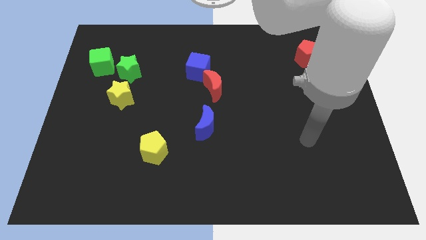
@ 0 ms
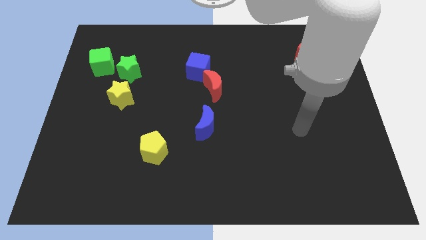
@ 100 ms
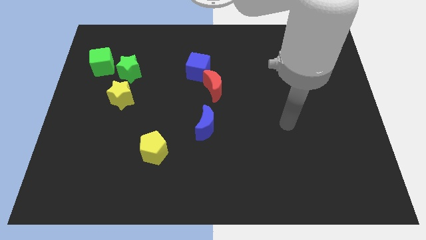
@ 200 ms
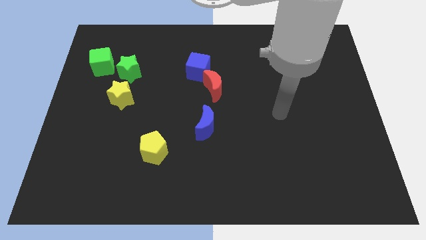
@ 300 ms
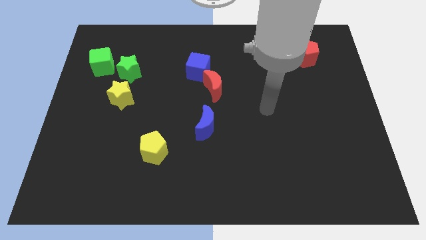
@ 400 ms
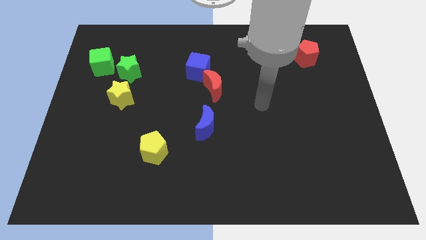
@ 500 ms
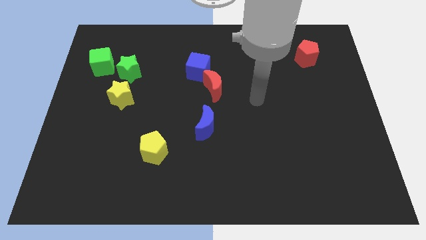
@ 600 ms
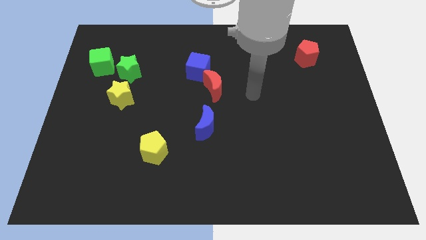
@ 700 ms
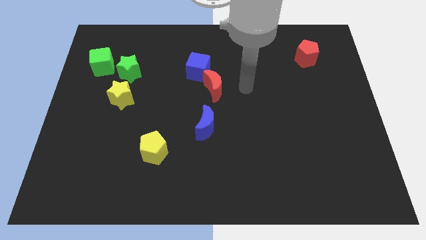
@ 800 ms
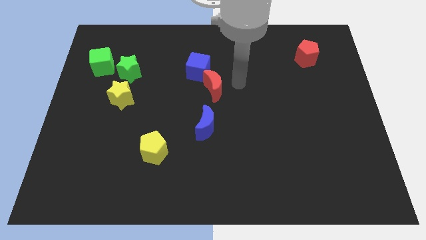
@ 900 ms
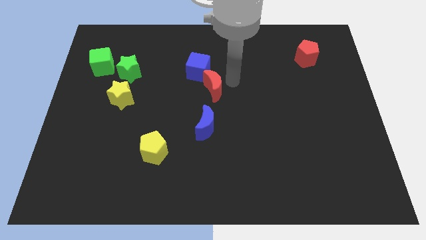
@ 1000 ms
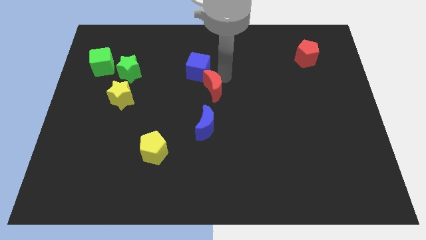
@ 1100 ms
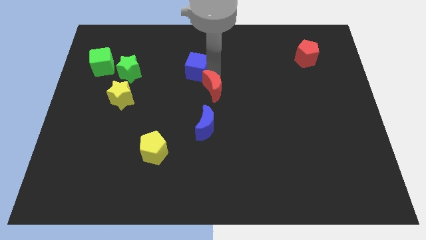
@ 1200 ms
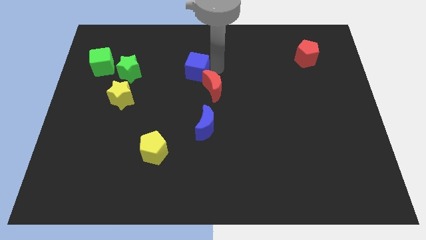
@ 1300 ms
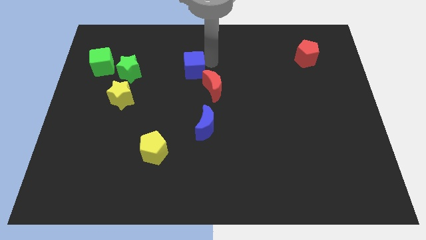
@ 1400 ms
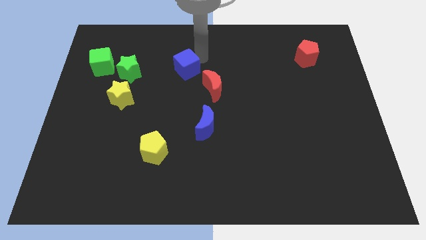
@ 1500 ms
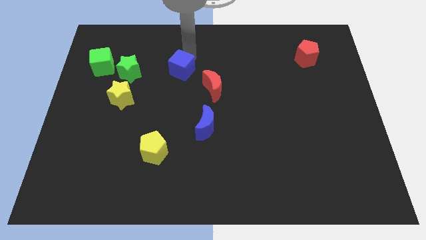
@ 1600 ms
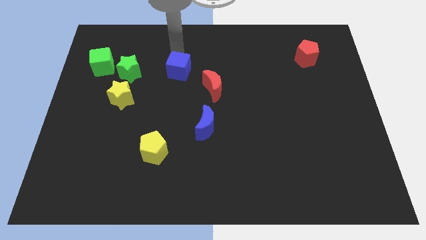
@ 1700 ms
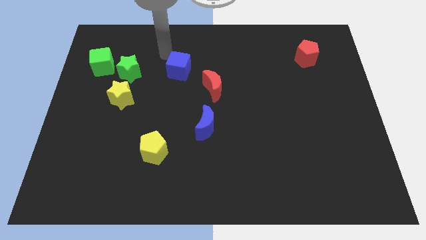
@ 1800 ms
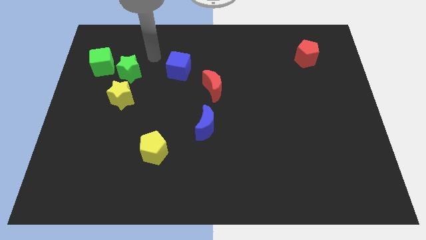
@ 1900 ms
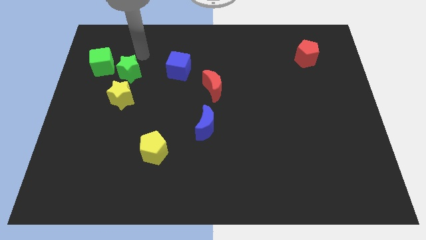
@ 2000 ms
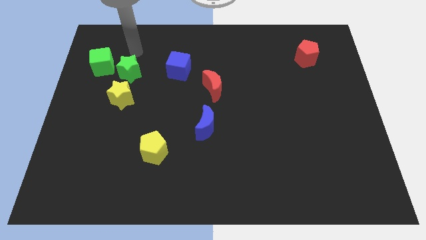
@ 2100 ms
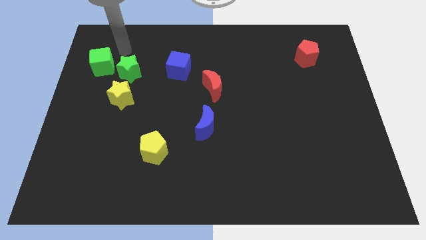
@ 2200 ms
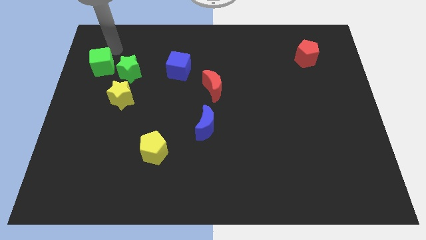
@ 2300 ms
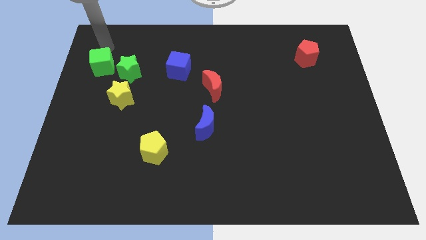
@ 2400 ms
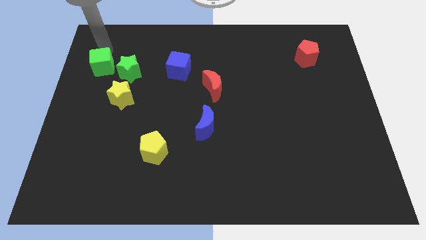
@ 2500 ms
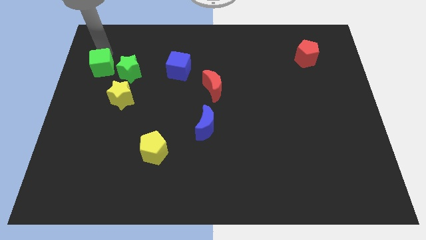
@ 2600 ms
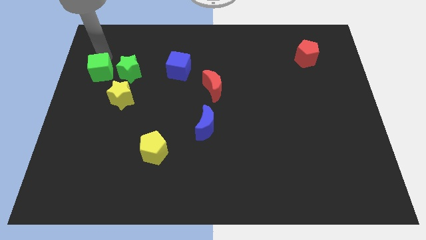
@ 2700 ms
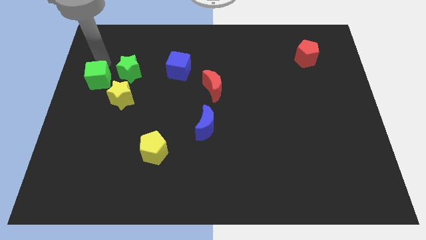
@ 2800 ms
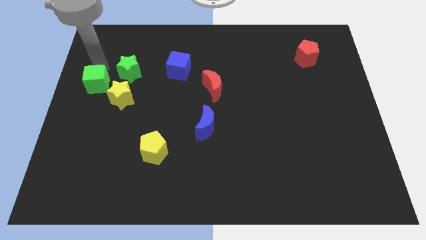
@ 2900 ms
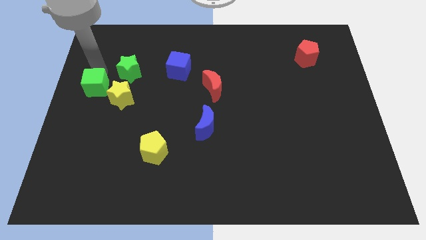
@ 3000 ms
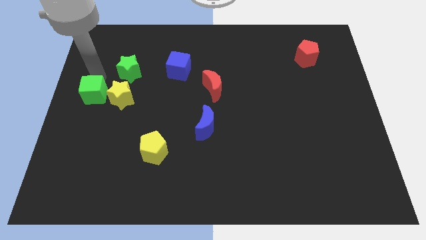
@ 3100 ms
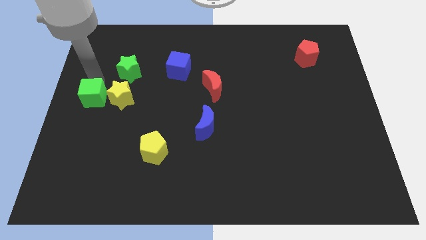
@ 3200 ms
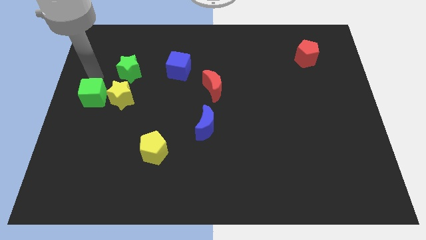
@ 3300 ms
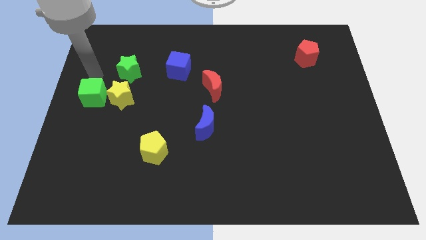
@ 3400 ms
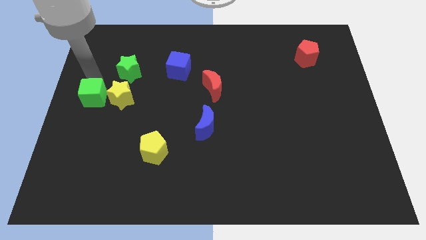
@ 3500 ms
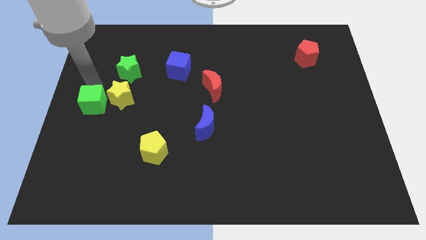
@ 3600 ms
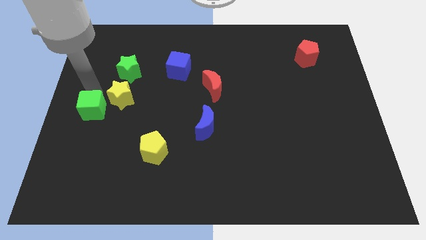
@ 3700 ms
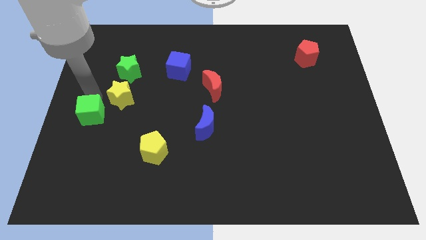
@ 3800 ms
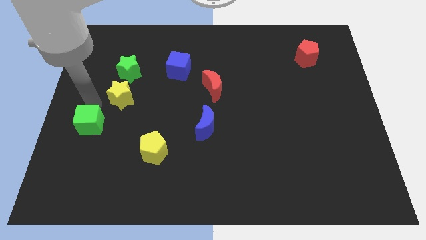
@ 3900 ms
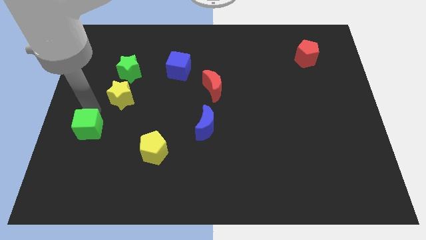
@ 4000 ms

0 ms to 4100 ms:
push the green cube down

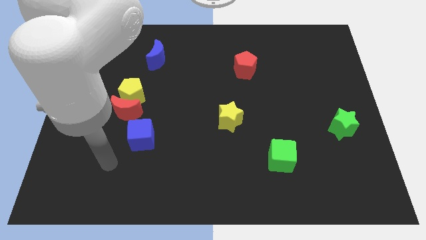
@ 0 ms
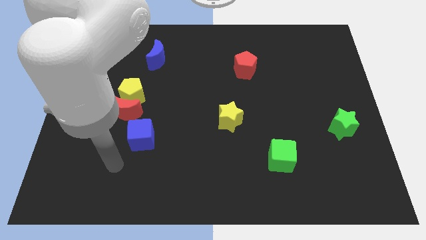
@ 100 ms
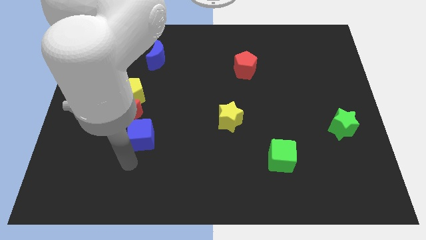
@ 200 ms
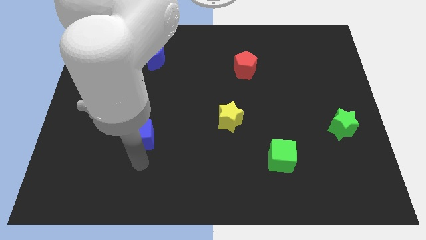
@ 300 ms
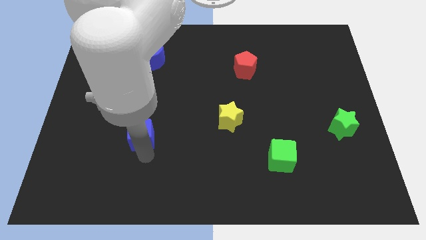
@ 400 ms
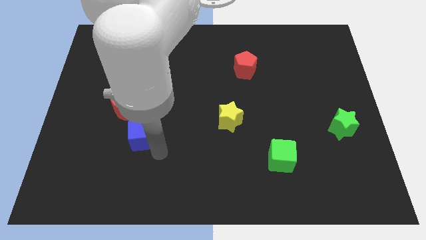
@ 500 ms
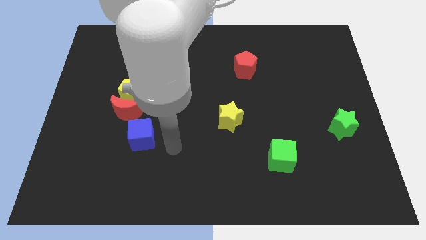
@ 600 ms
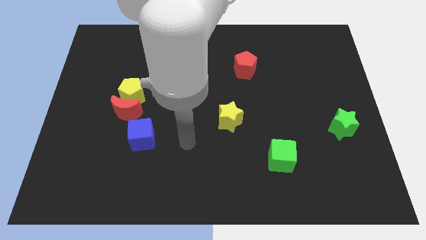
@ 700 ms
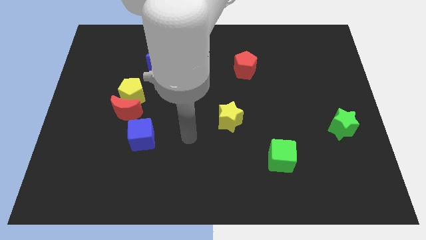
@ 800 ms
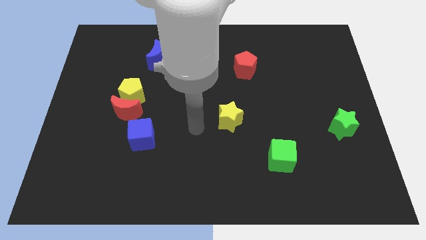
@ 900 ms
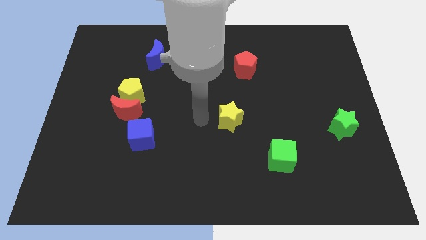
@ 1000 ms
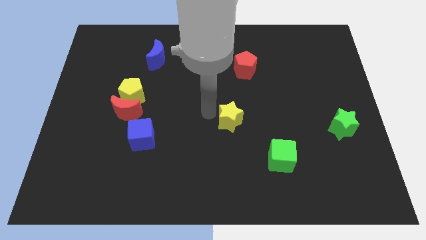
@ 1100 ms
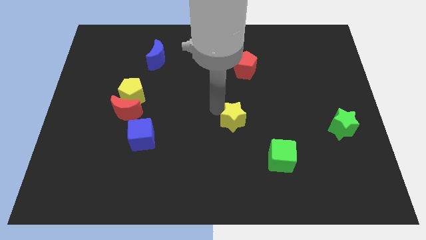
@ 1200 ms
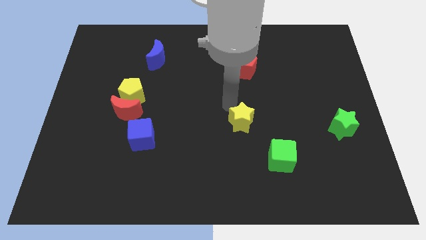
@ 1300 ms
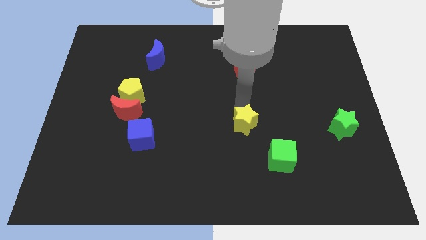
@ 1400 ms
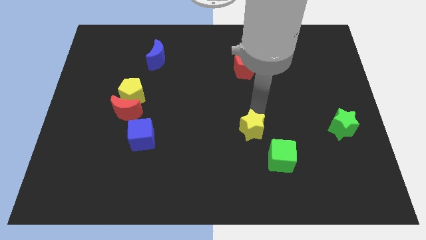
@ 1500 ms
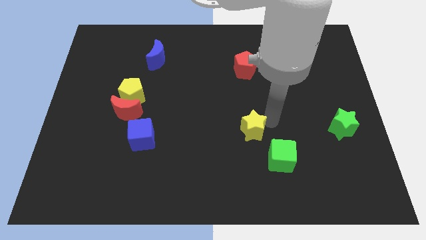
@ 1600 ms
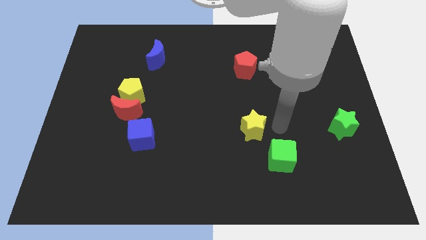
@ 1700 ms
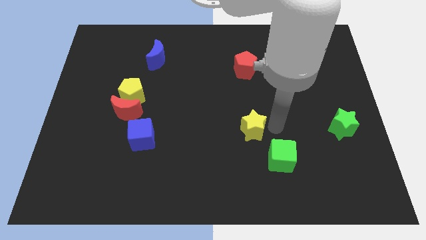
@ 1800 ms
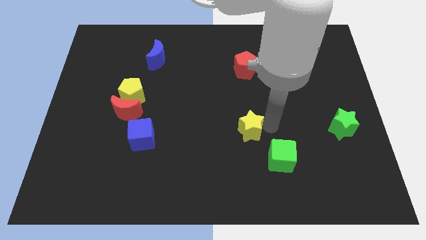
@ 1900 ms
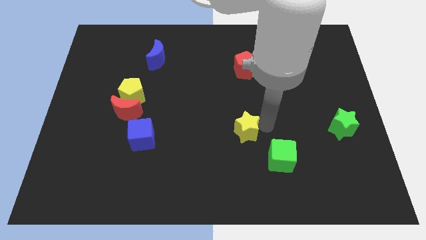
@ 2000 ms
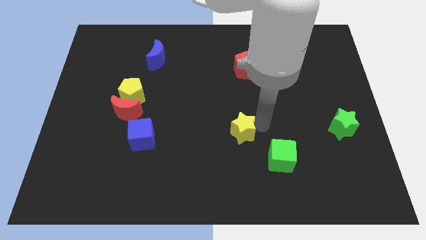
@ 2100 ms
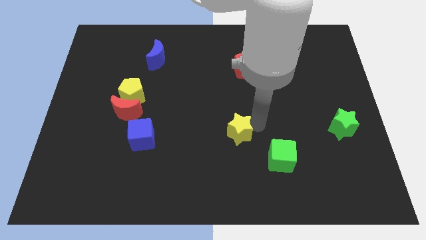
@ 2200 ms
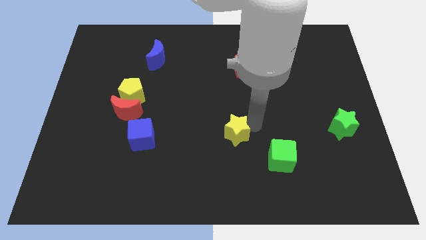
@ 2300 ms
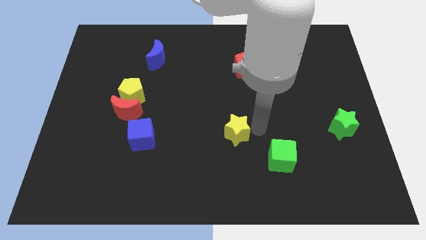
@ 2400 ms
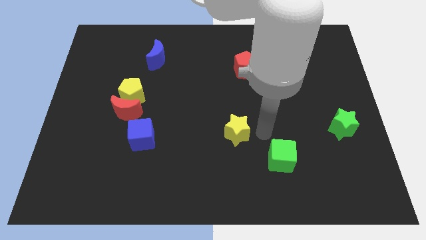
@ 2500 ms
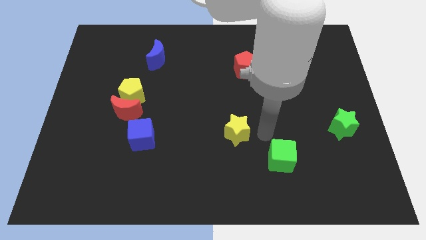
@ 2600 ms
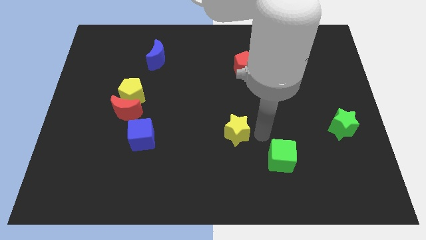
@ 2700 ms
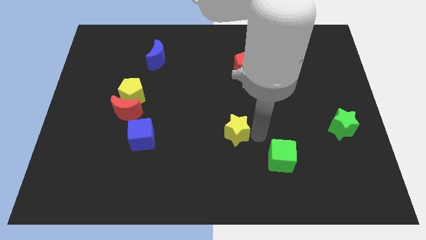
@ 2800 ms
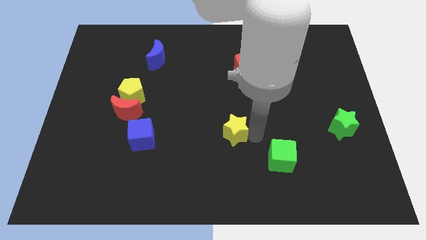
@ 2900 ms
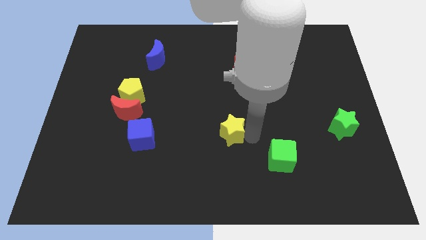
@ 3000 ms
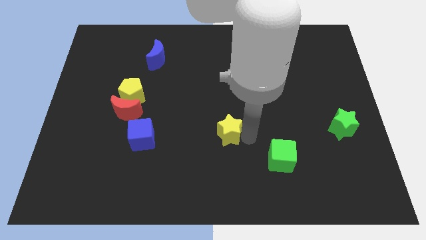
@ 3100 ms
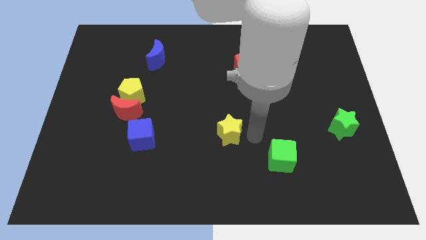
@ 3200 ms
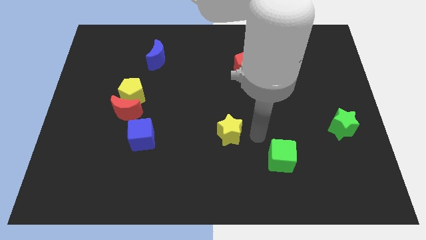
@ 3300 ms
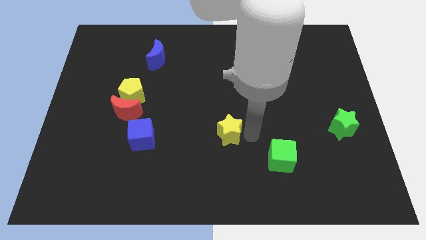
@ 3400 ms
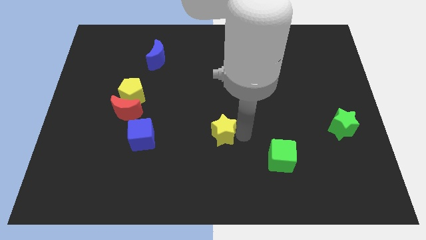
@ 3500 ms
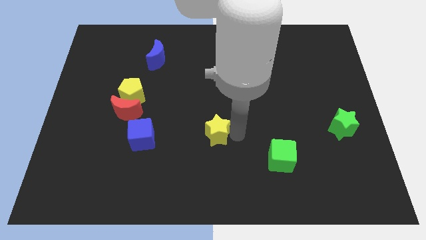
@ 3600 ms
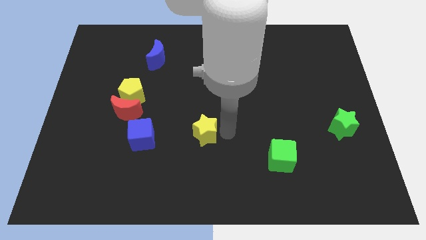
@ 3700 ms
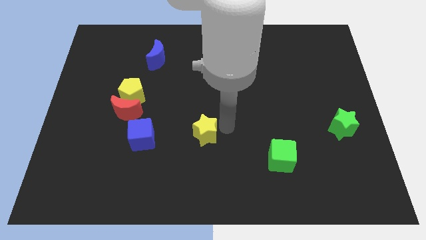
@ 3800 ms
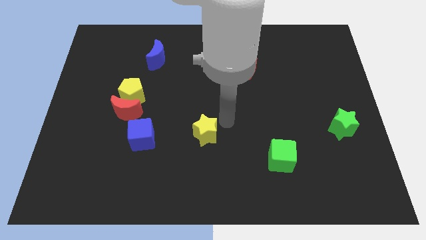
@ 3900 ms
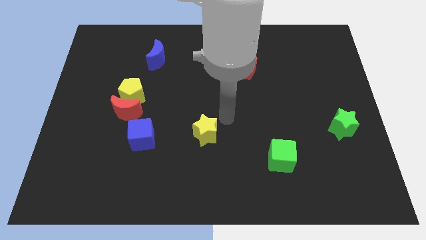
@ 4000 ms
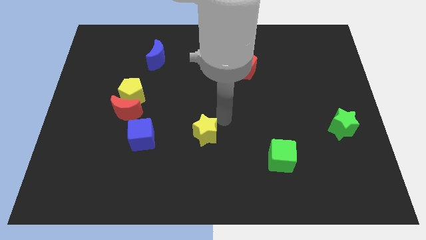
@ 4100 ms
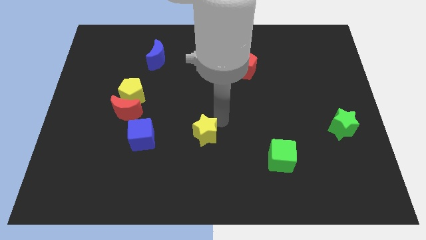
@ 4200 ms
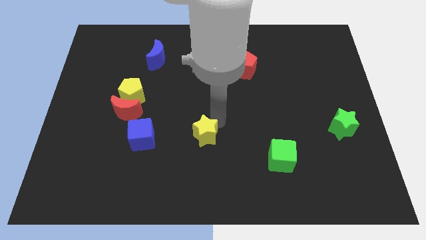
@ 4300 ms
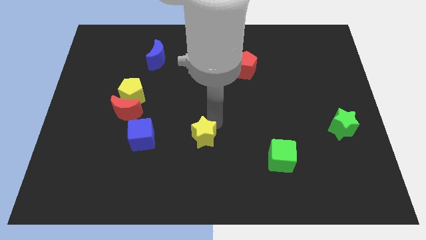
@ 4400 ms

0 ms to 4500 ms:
push the yellow star diagonally down and to the left a bit
